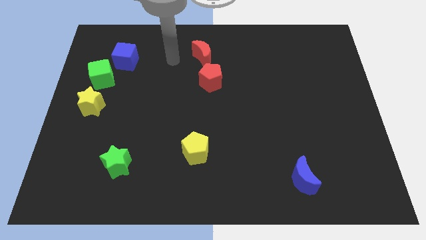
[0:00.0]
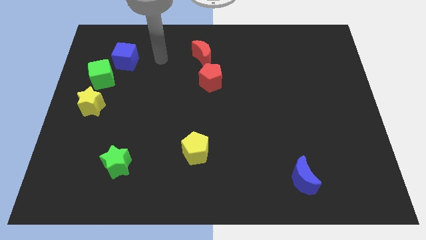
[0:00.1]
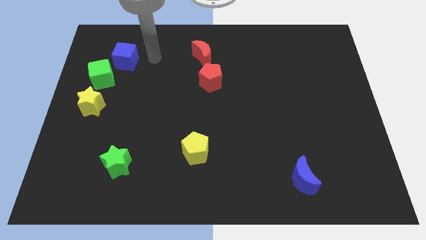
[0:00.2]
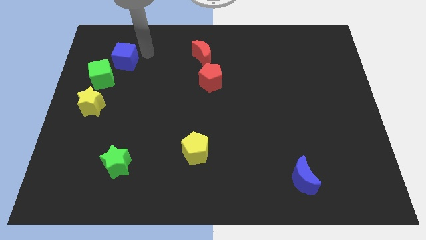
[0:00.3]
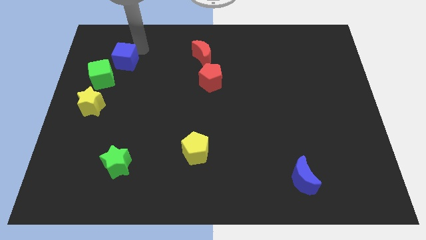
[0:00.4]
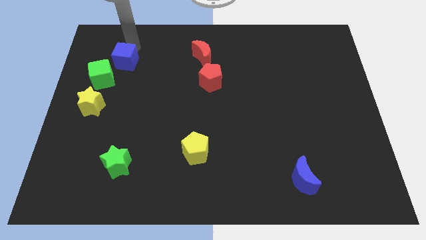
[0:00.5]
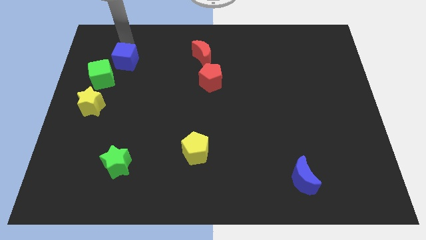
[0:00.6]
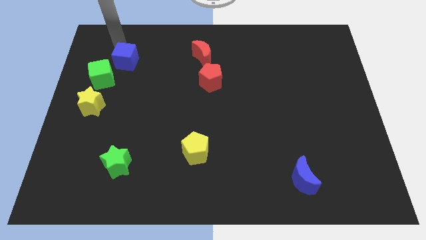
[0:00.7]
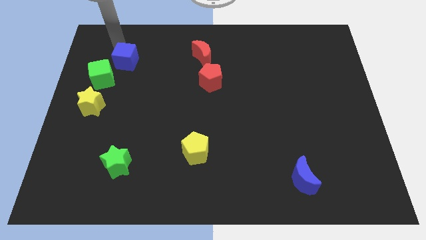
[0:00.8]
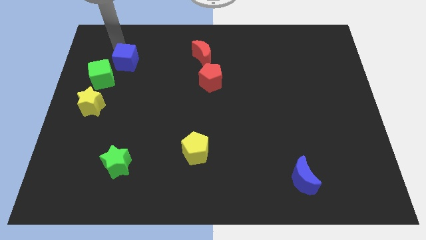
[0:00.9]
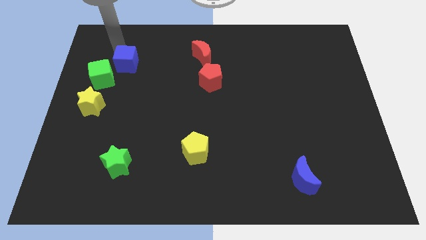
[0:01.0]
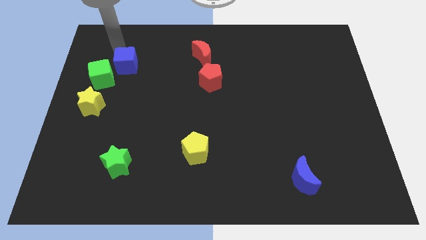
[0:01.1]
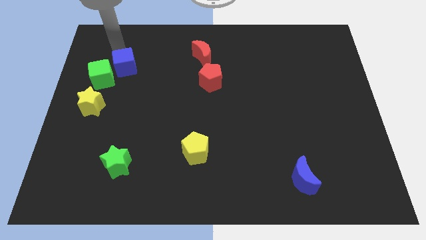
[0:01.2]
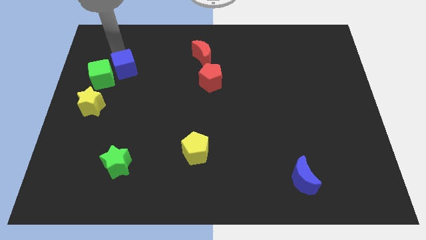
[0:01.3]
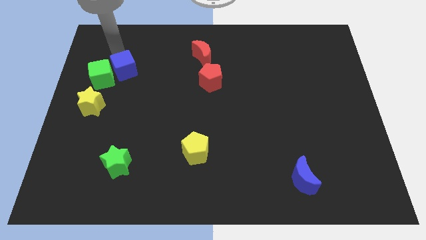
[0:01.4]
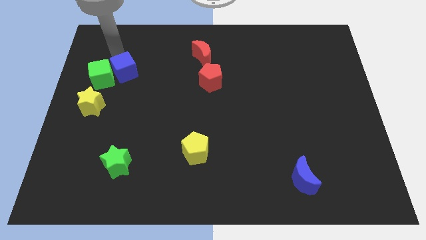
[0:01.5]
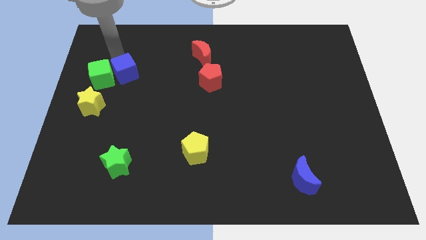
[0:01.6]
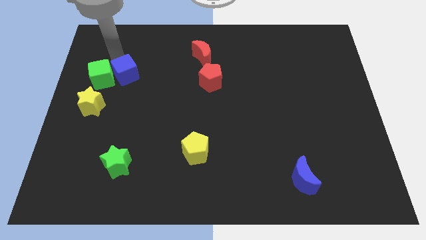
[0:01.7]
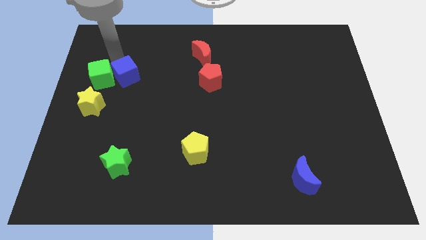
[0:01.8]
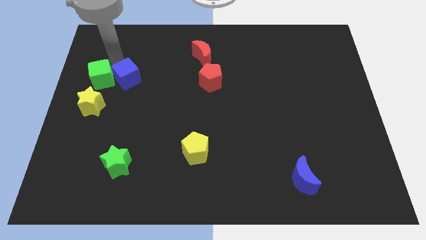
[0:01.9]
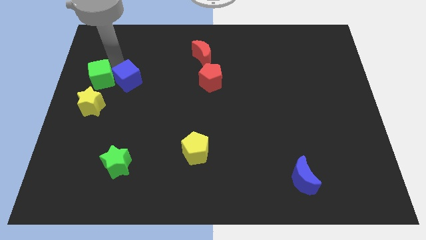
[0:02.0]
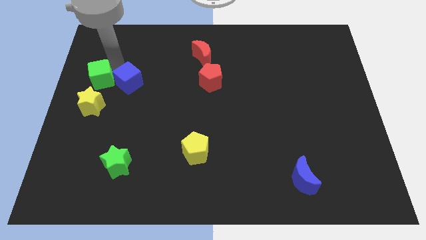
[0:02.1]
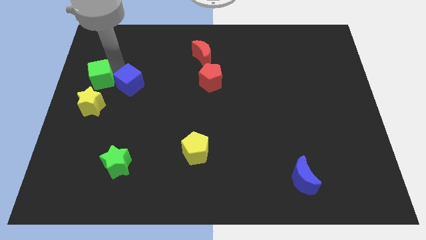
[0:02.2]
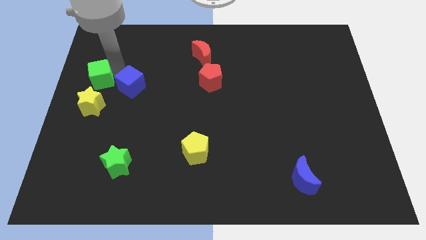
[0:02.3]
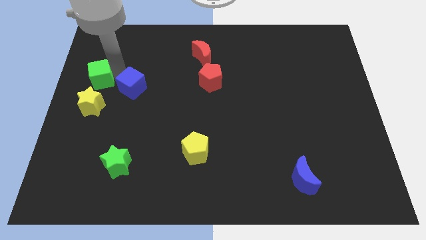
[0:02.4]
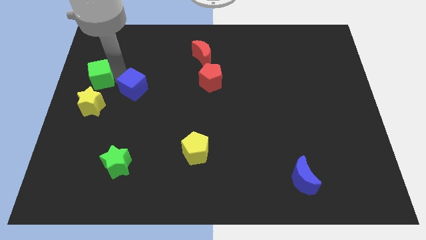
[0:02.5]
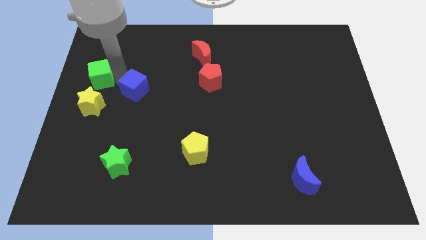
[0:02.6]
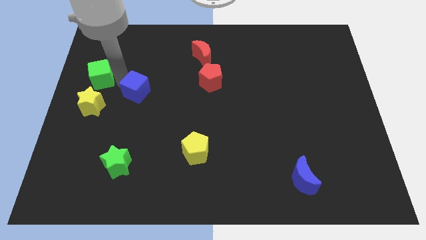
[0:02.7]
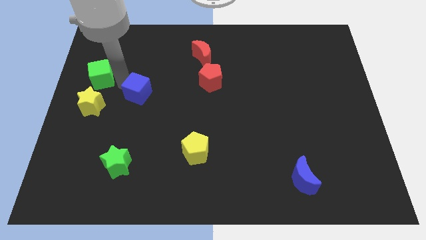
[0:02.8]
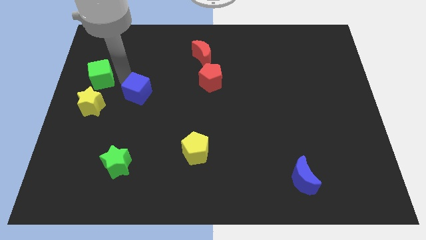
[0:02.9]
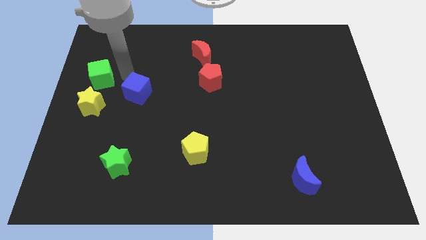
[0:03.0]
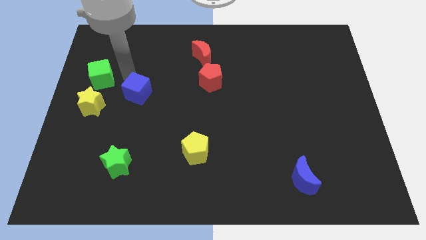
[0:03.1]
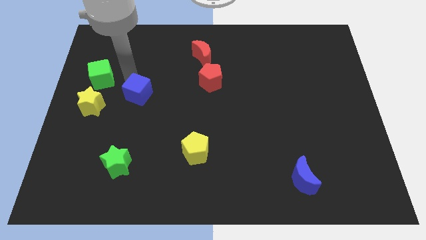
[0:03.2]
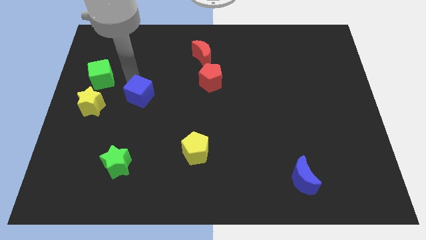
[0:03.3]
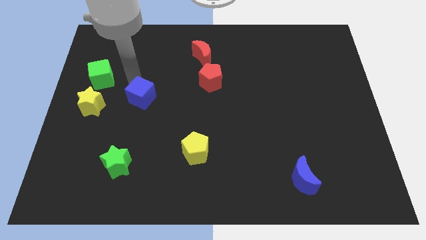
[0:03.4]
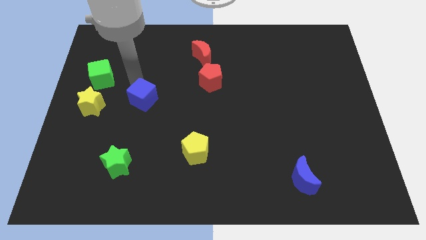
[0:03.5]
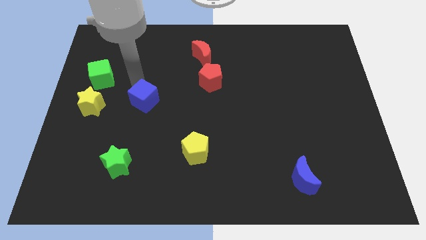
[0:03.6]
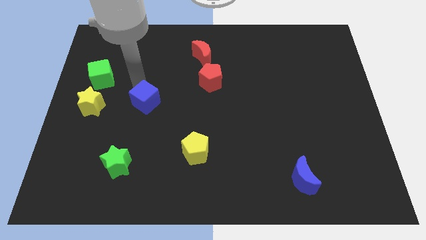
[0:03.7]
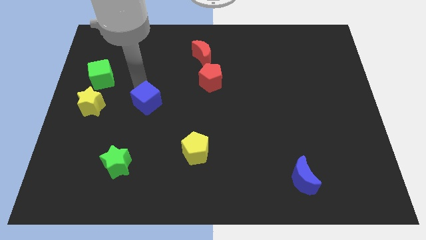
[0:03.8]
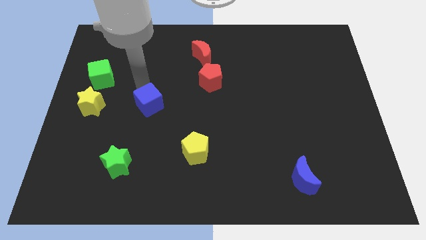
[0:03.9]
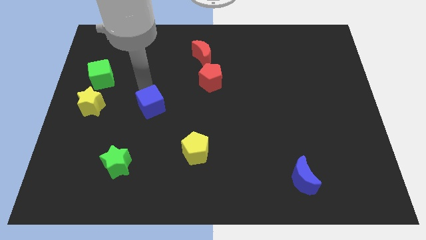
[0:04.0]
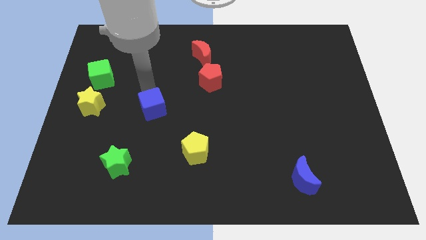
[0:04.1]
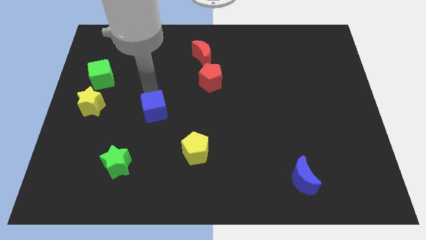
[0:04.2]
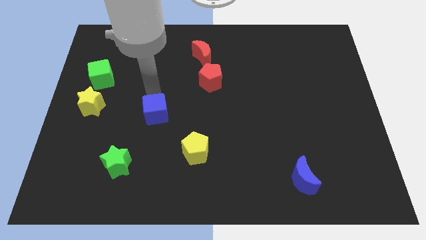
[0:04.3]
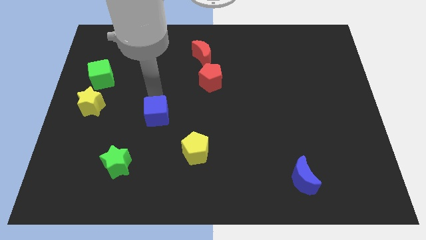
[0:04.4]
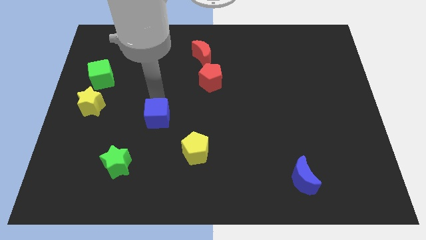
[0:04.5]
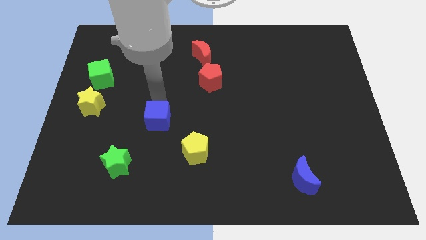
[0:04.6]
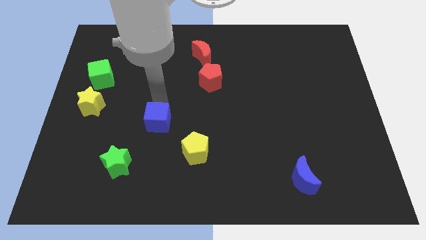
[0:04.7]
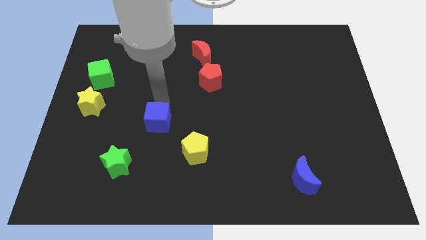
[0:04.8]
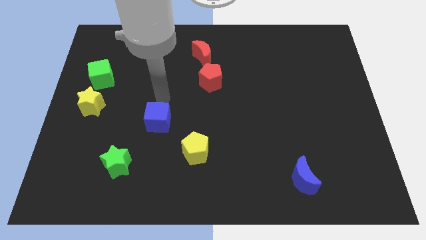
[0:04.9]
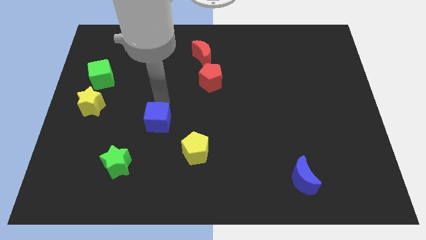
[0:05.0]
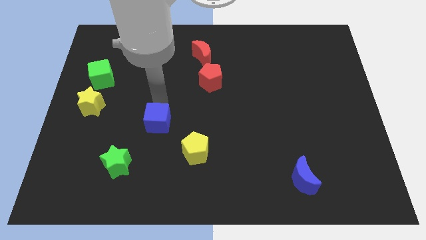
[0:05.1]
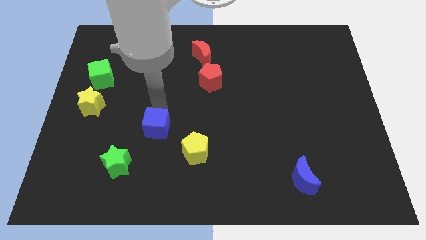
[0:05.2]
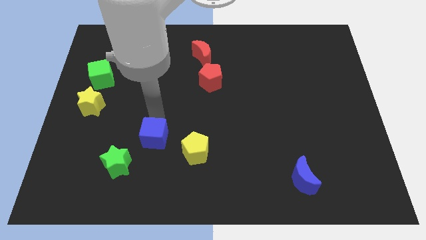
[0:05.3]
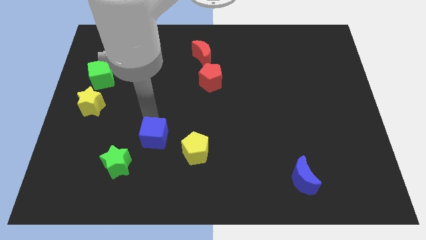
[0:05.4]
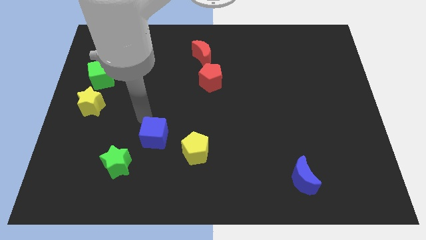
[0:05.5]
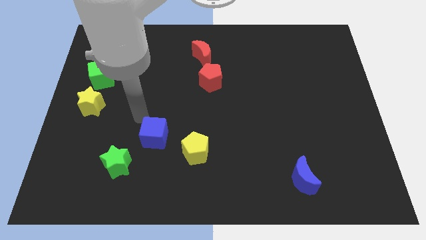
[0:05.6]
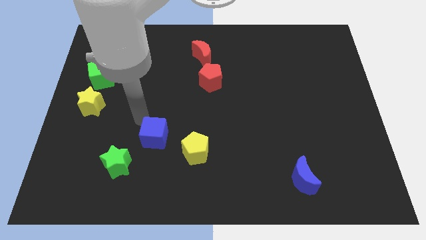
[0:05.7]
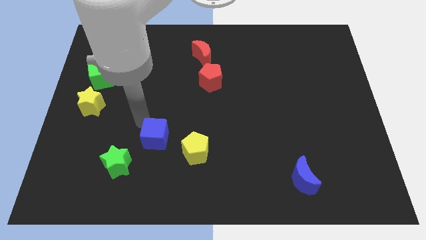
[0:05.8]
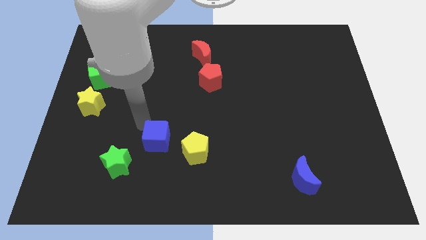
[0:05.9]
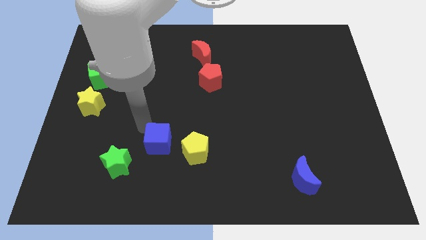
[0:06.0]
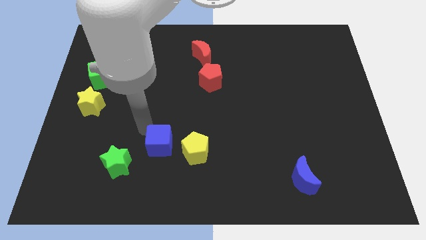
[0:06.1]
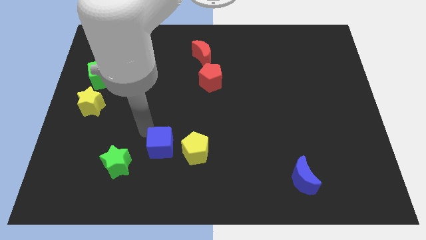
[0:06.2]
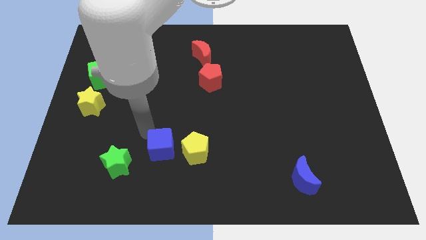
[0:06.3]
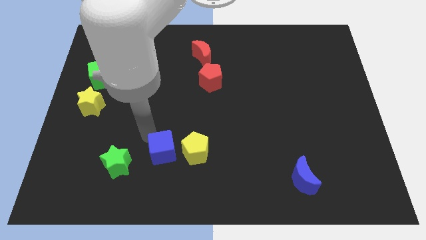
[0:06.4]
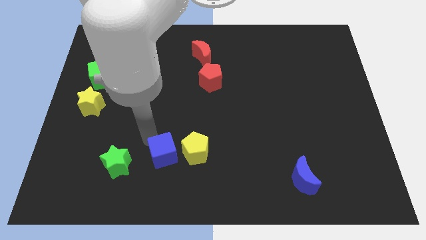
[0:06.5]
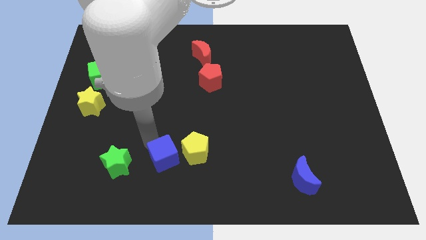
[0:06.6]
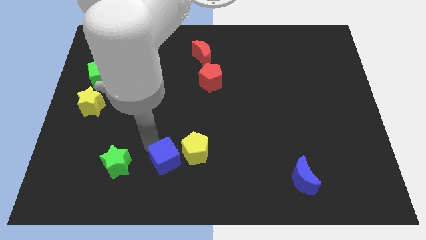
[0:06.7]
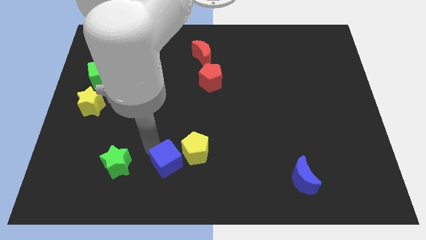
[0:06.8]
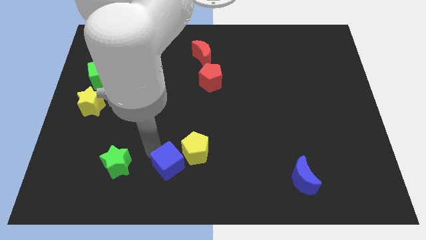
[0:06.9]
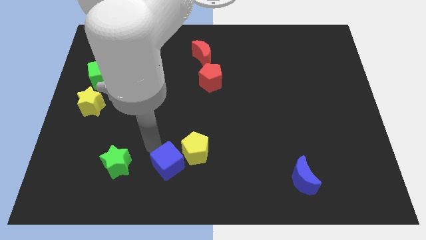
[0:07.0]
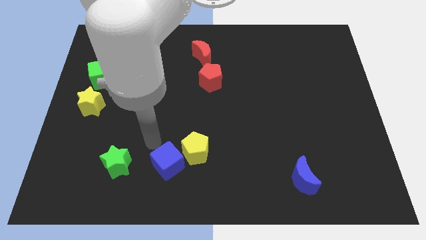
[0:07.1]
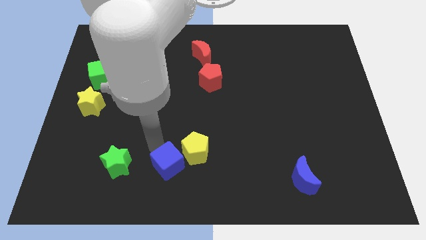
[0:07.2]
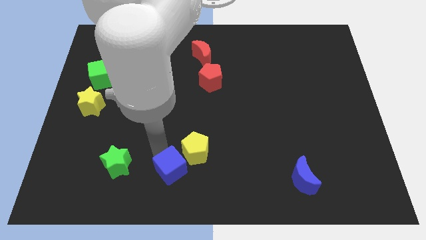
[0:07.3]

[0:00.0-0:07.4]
push the blue cube to the bottom
